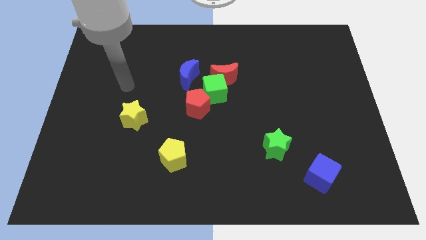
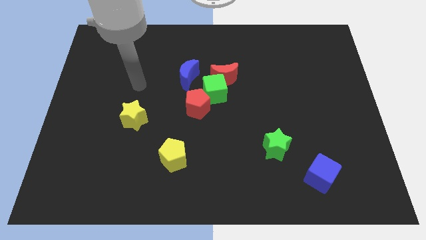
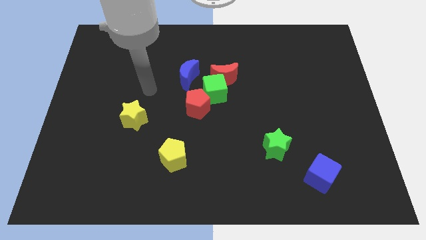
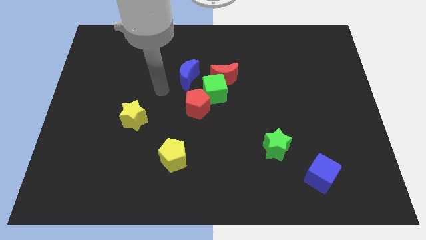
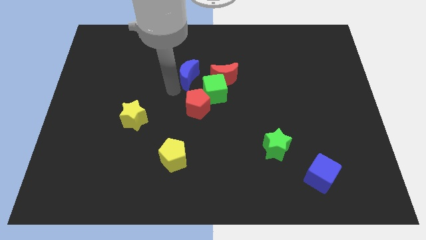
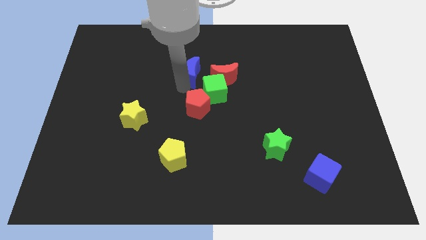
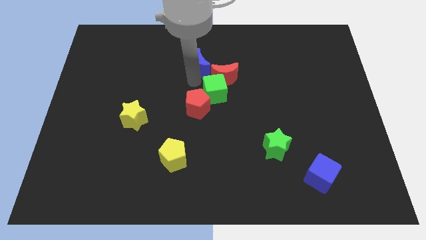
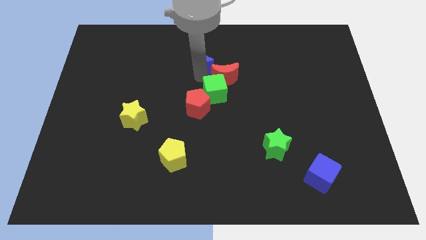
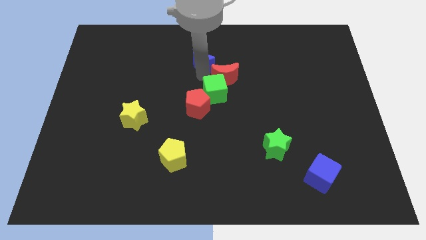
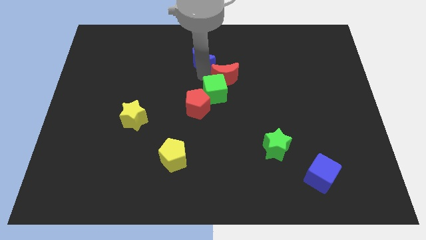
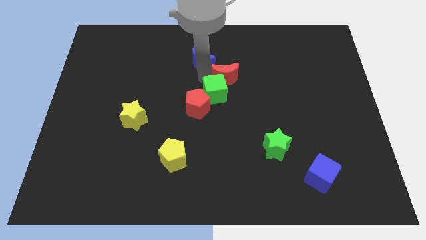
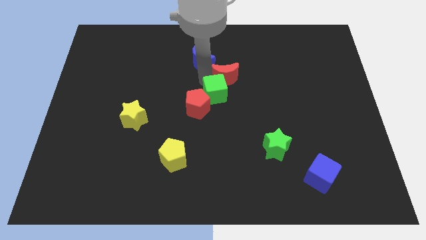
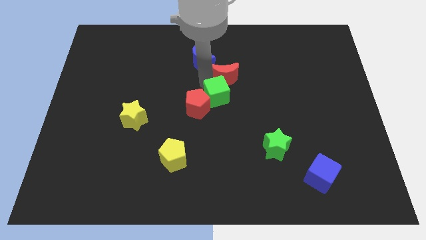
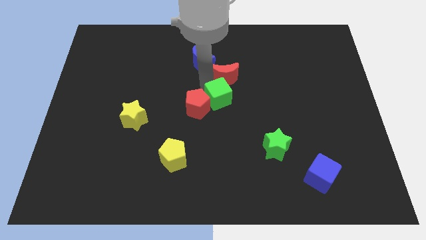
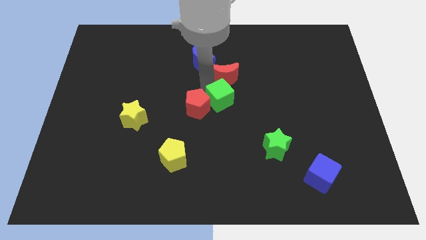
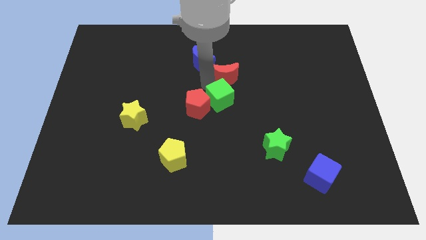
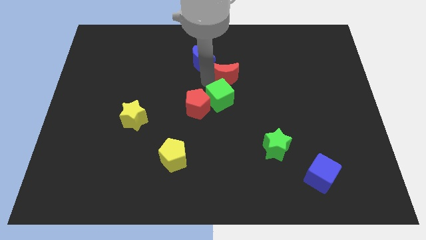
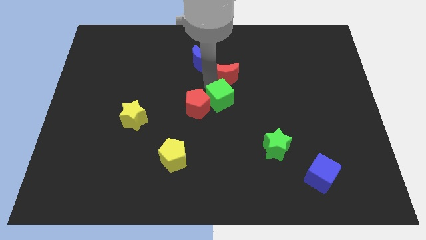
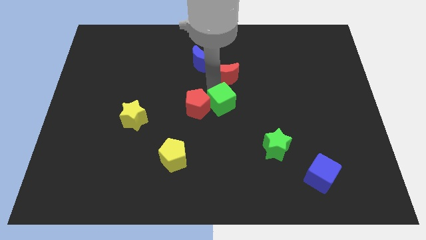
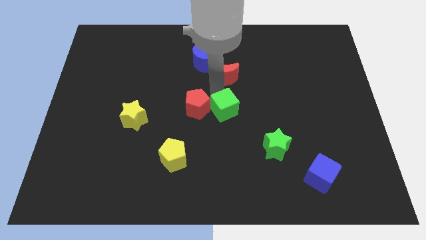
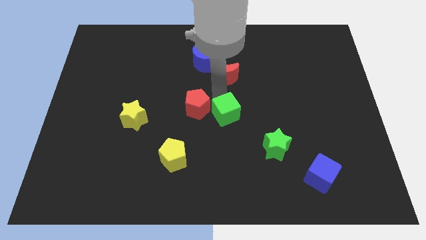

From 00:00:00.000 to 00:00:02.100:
move the green cube away from the group

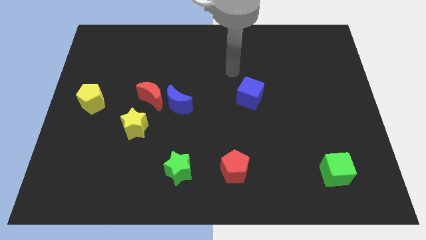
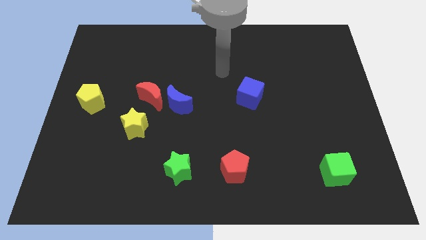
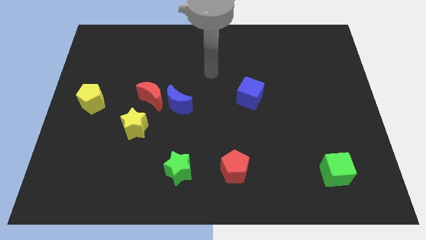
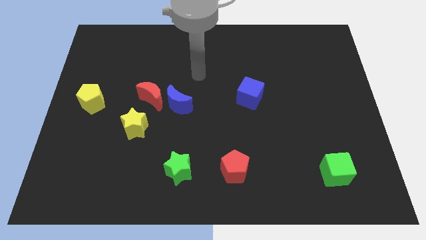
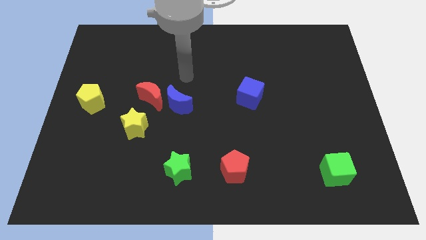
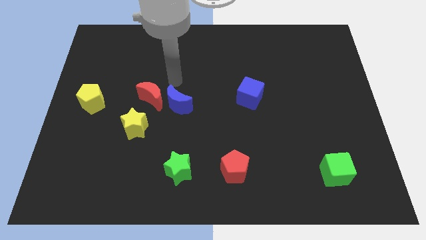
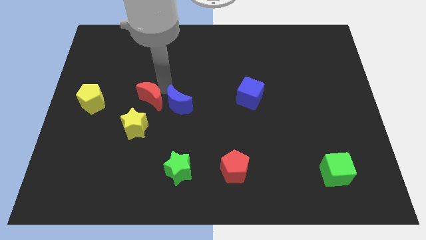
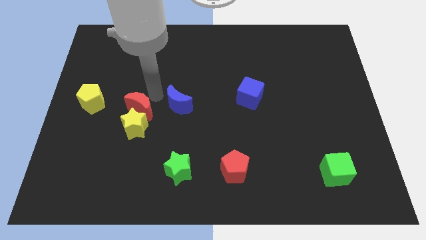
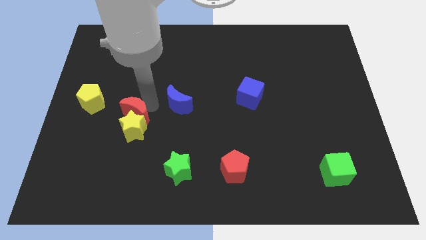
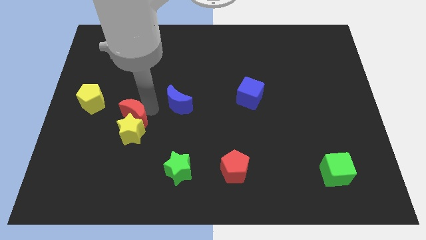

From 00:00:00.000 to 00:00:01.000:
move the blue moon away from the red moon

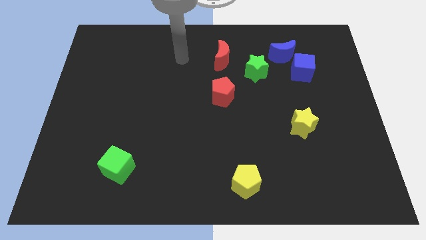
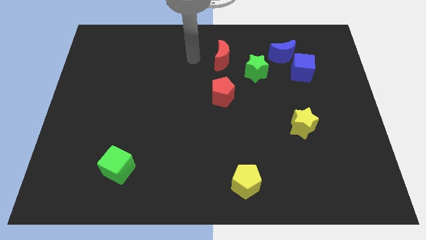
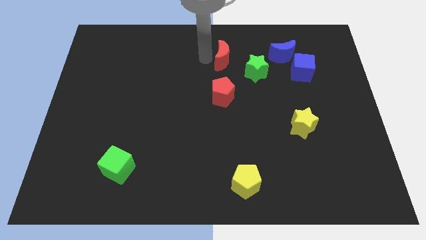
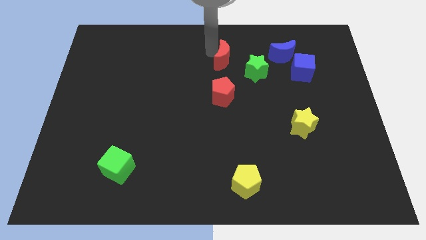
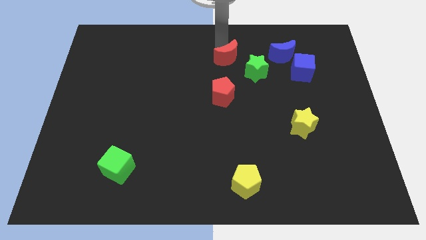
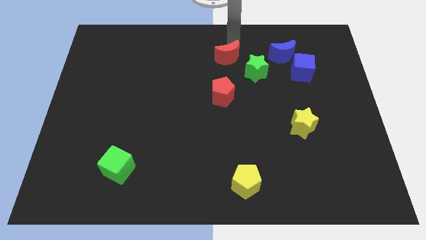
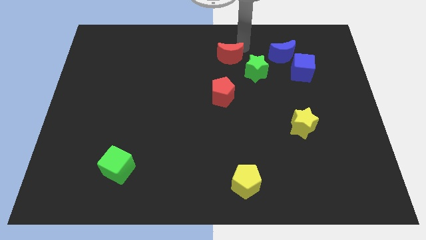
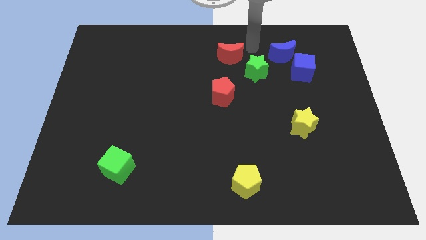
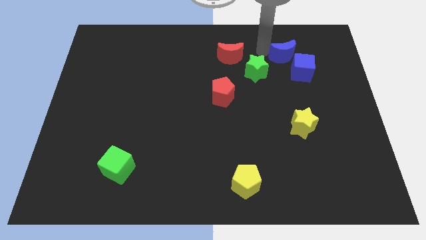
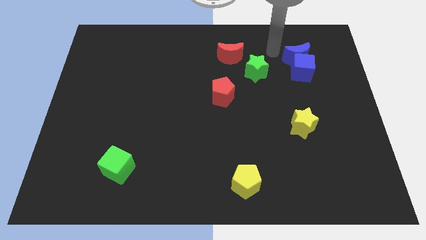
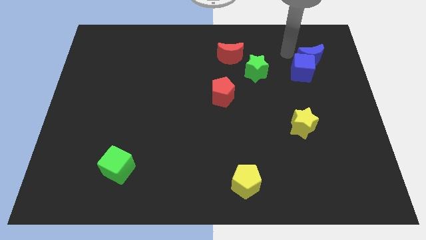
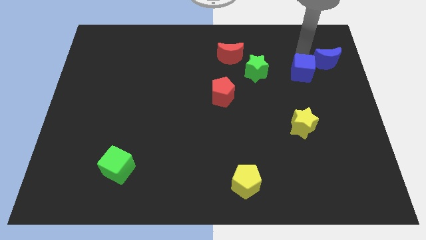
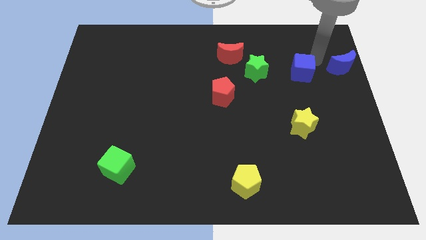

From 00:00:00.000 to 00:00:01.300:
pull the blue cube apart from the blue moon

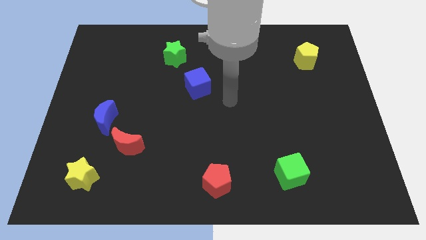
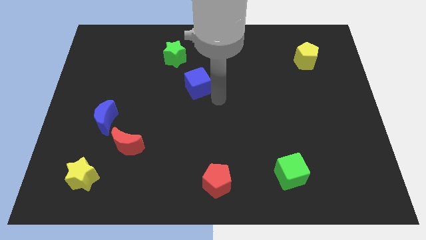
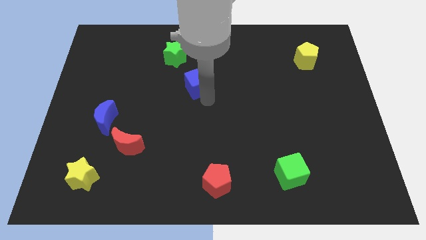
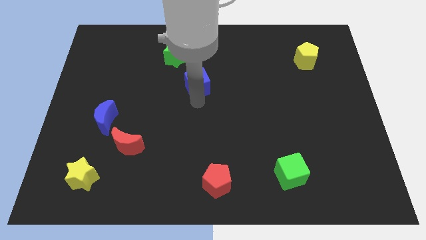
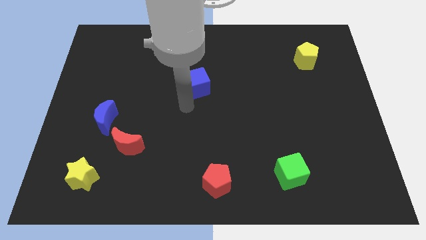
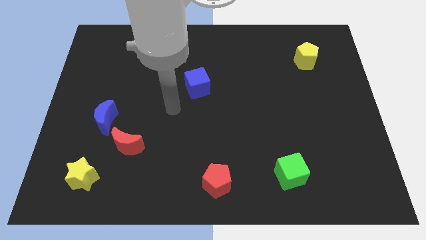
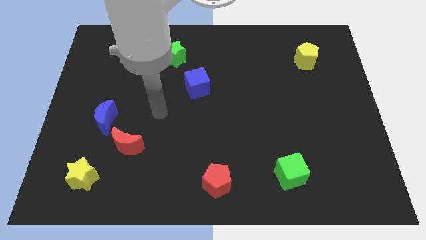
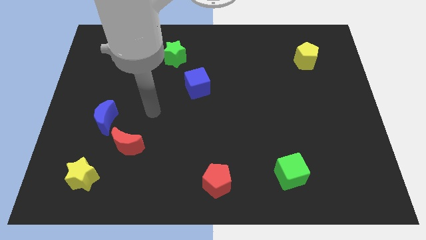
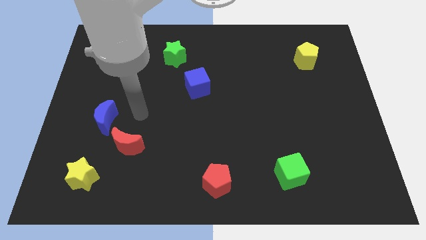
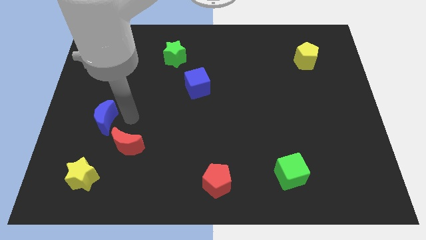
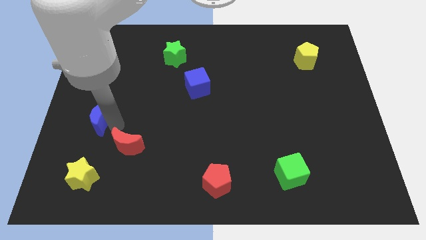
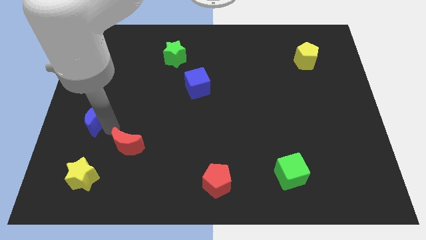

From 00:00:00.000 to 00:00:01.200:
separate the red moon from the blue moon

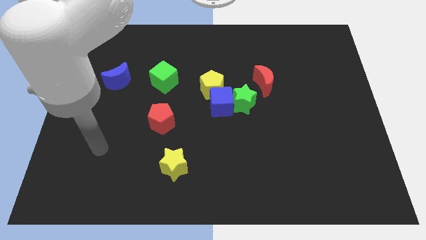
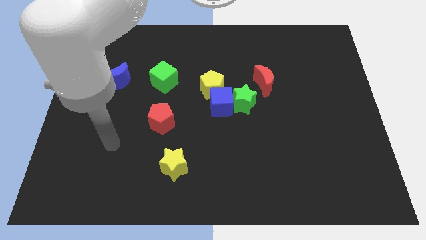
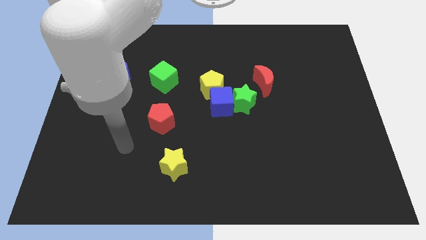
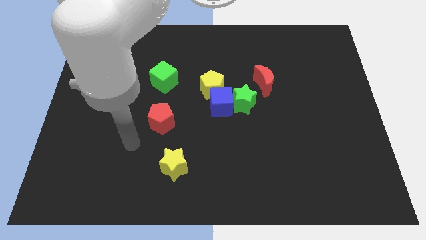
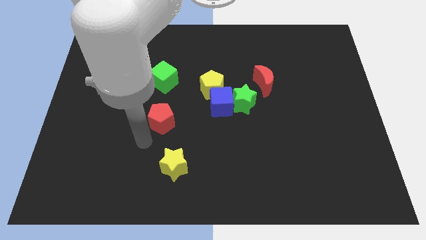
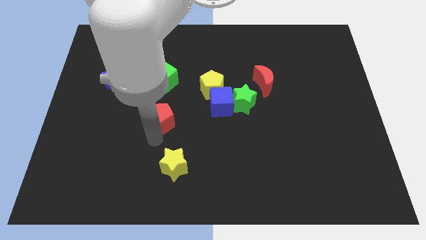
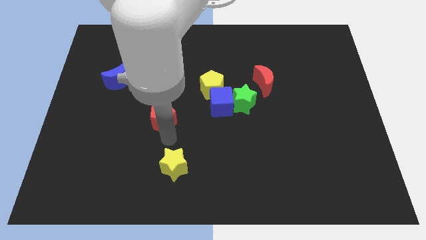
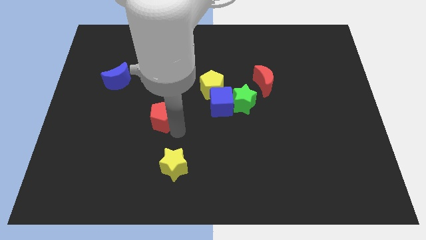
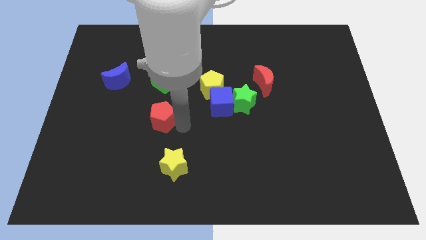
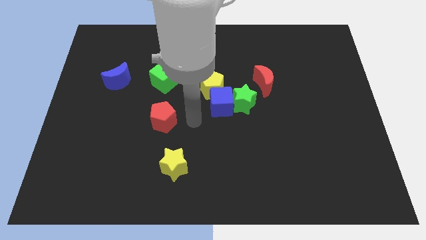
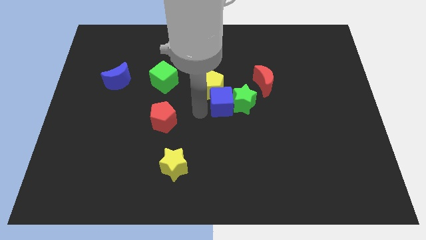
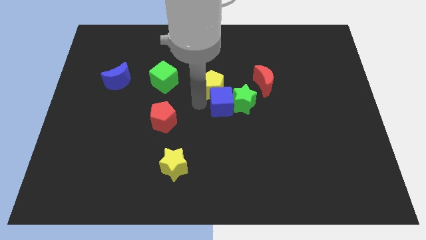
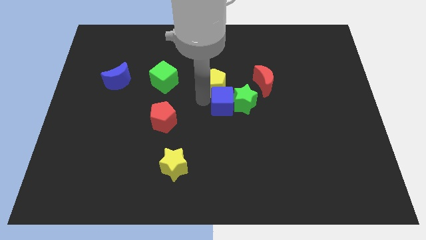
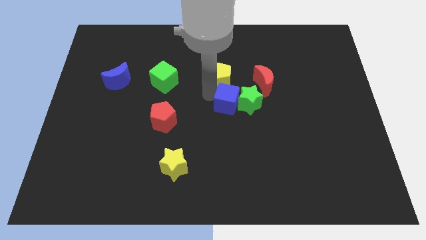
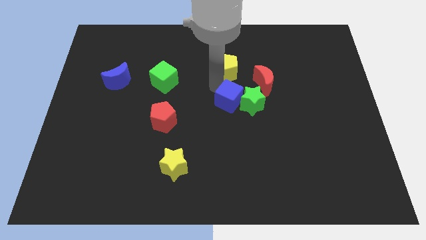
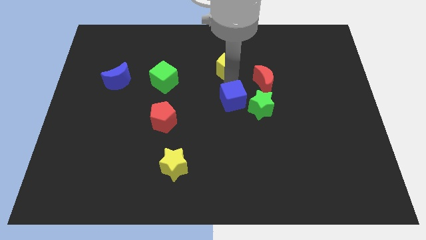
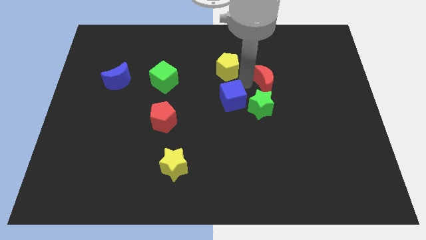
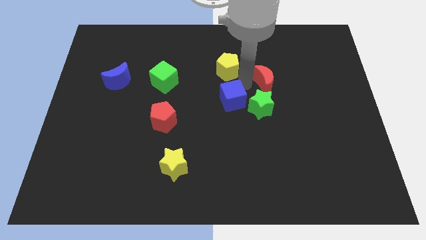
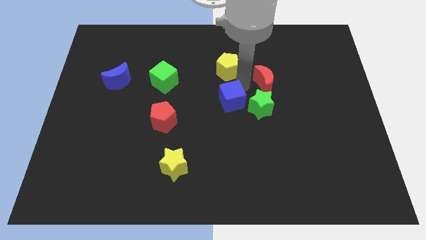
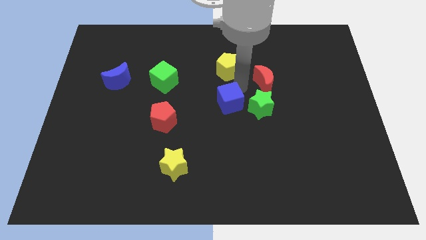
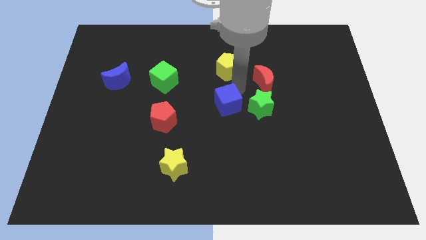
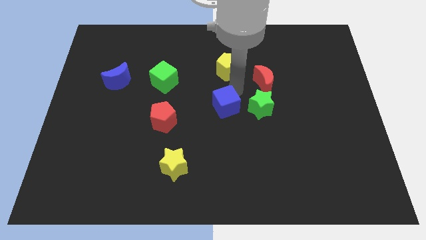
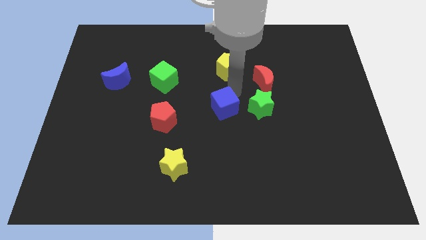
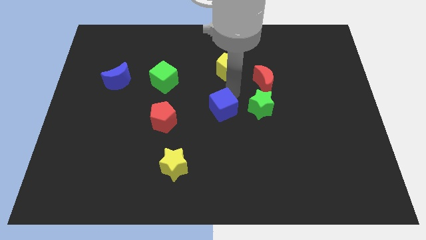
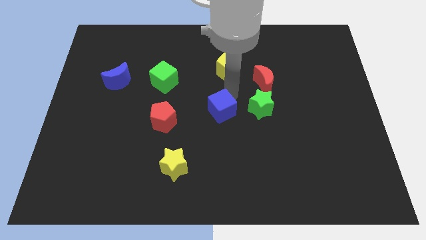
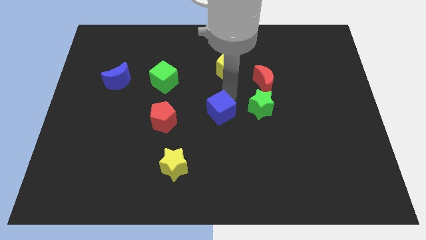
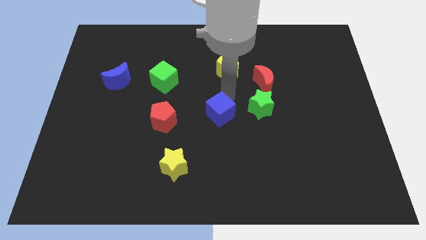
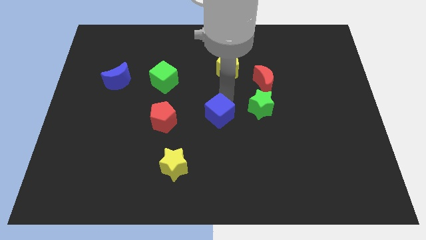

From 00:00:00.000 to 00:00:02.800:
move the blue cube away from the green star and yellow pentagon

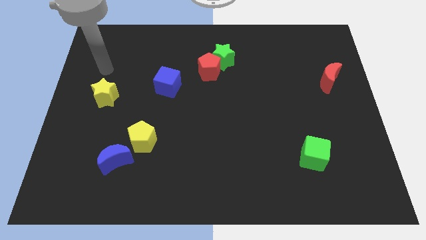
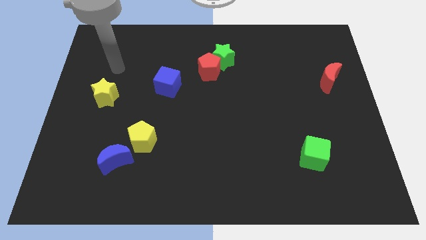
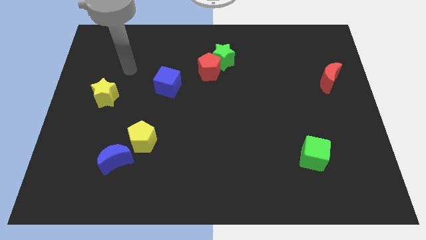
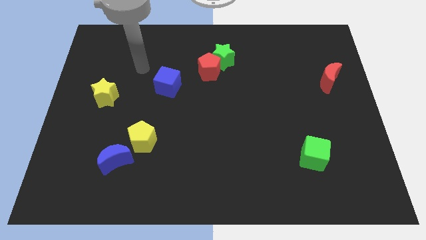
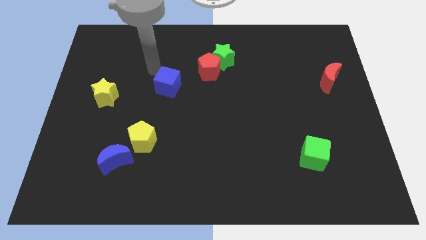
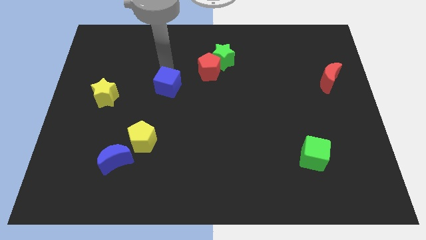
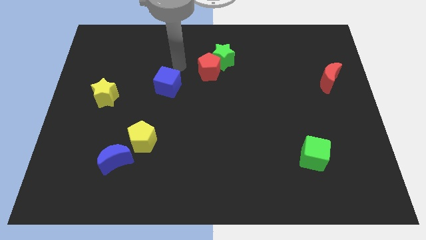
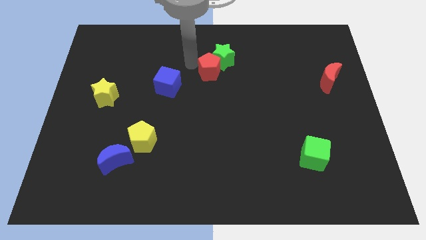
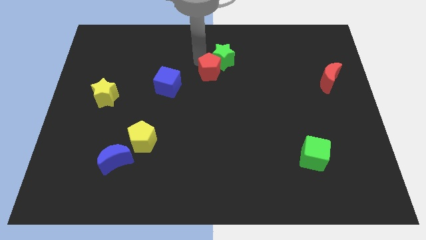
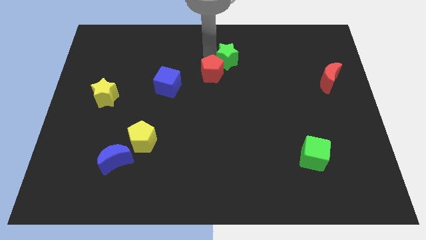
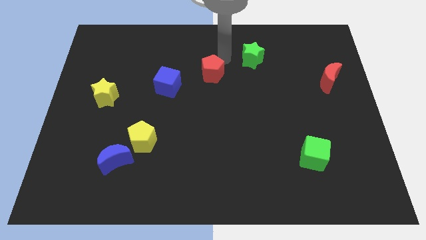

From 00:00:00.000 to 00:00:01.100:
move the red pentagon away from the green star

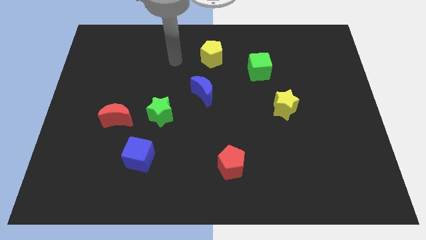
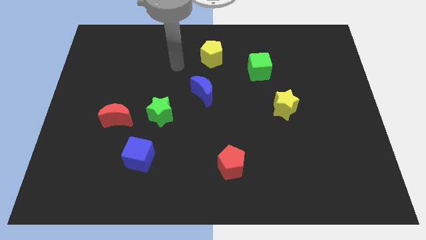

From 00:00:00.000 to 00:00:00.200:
move the red moon away from the green star
